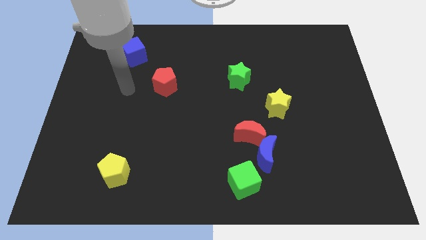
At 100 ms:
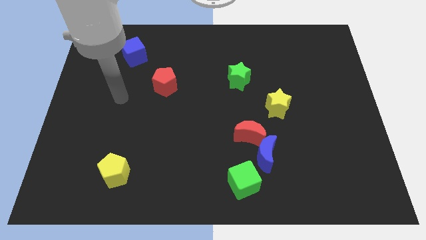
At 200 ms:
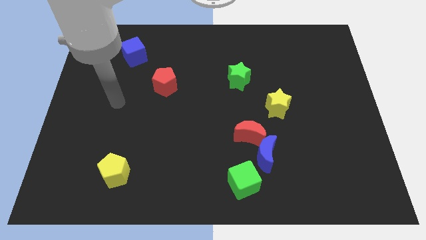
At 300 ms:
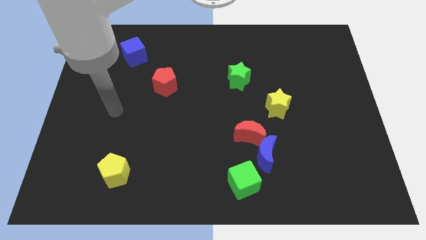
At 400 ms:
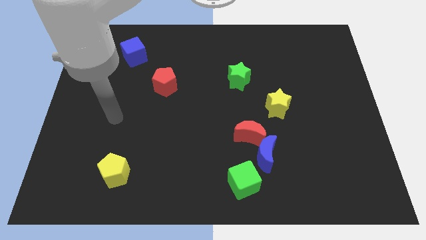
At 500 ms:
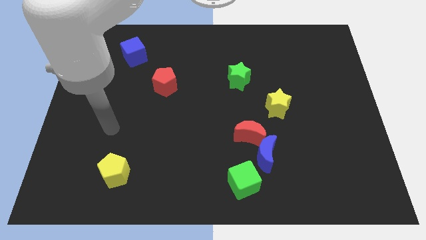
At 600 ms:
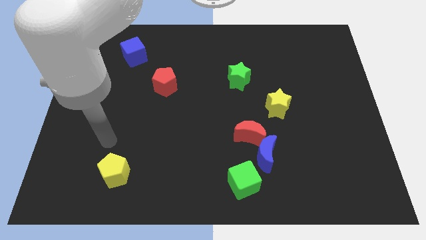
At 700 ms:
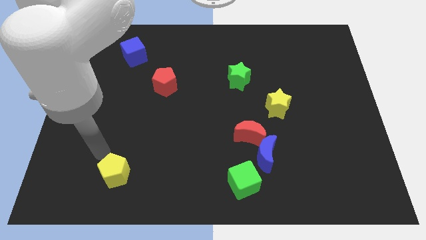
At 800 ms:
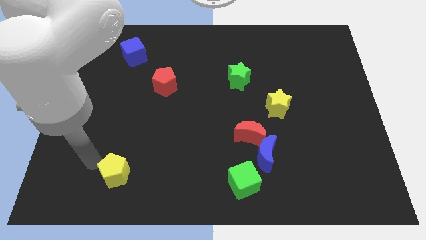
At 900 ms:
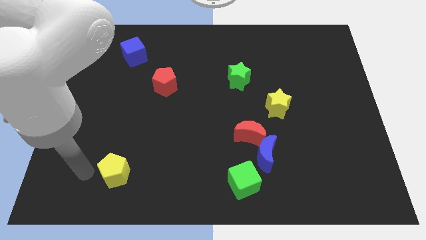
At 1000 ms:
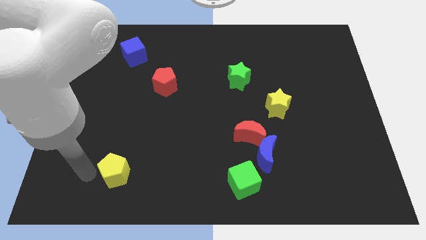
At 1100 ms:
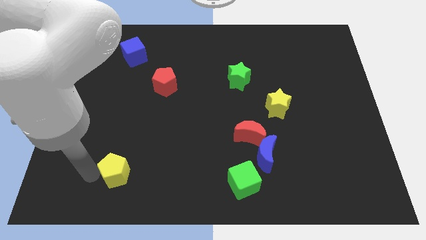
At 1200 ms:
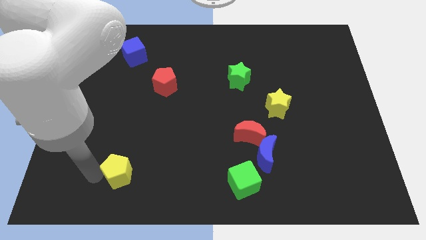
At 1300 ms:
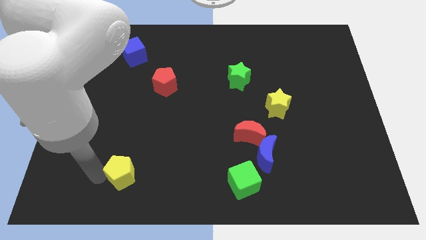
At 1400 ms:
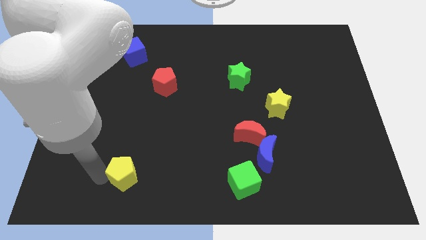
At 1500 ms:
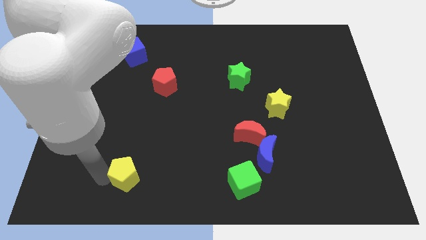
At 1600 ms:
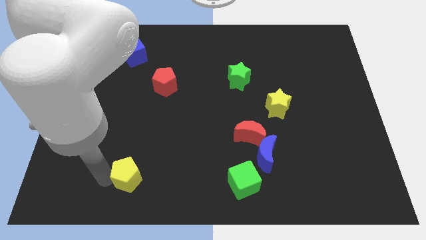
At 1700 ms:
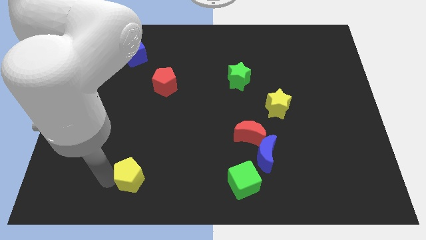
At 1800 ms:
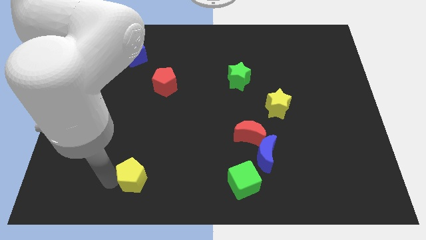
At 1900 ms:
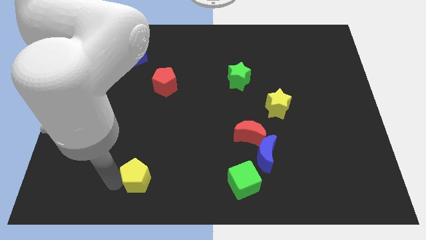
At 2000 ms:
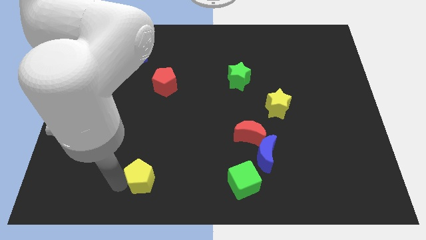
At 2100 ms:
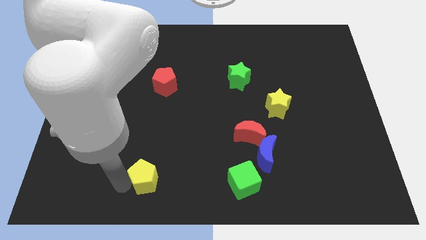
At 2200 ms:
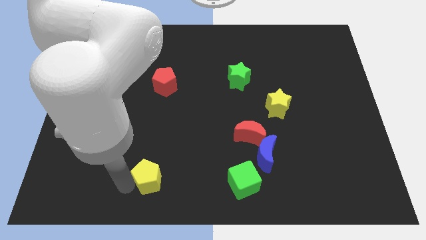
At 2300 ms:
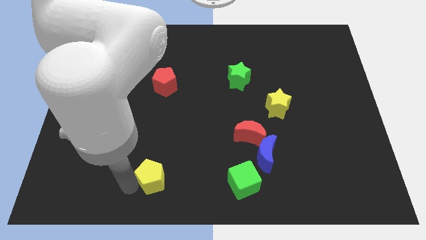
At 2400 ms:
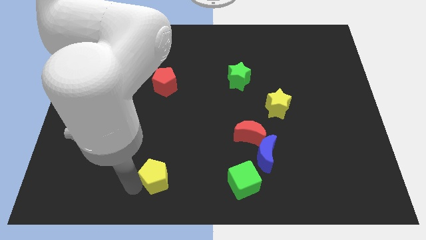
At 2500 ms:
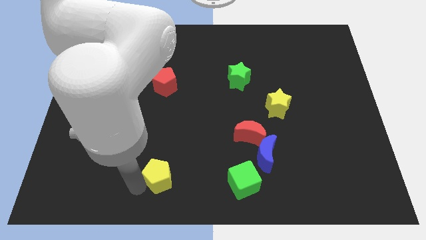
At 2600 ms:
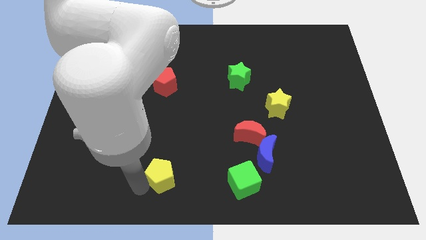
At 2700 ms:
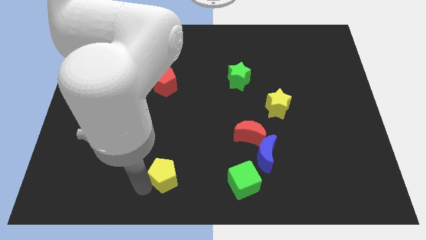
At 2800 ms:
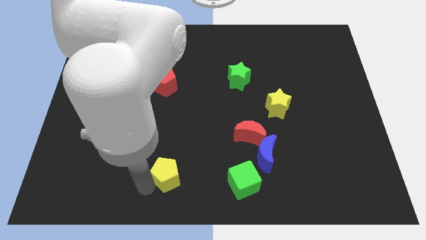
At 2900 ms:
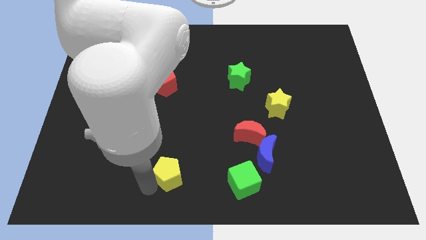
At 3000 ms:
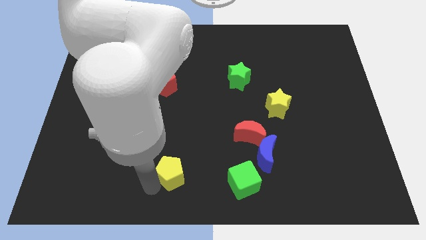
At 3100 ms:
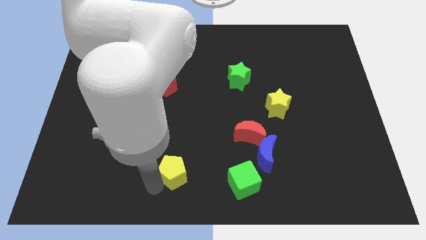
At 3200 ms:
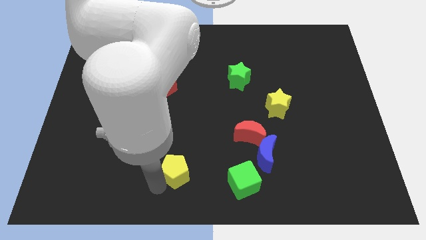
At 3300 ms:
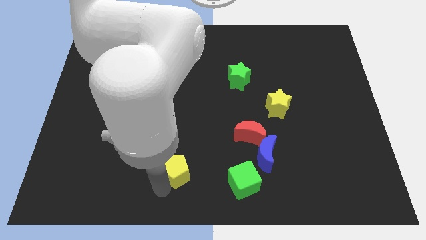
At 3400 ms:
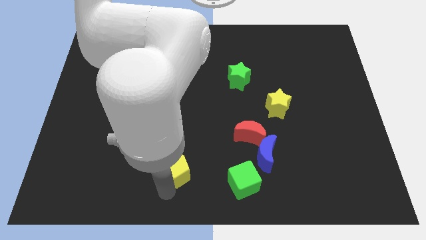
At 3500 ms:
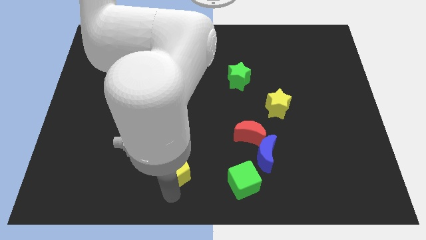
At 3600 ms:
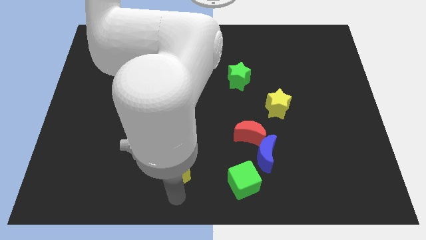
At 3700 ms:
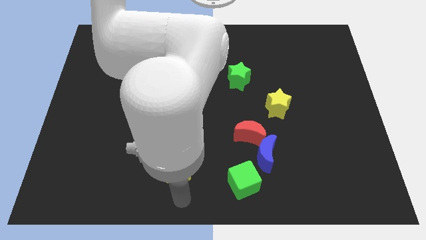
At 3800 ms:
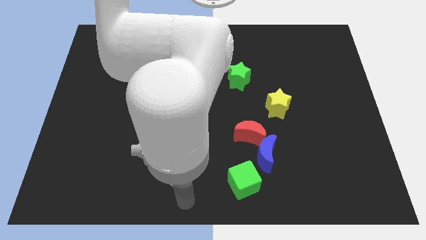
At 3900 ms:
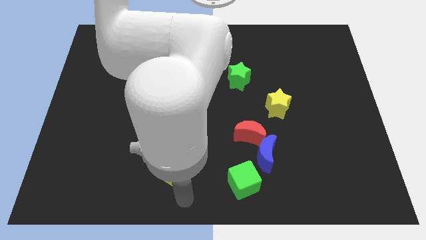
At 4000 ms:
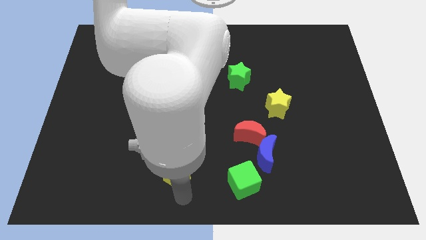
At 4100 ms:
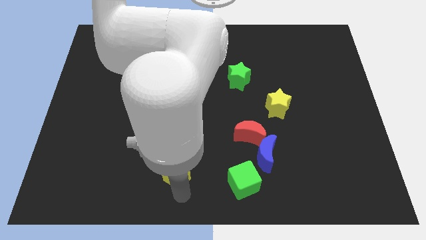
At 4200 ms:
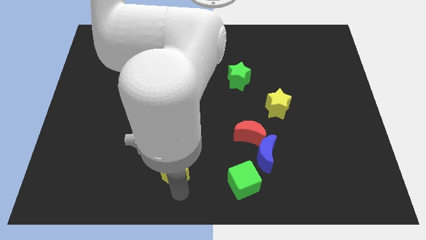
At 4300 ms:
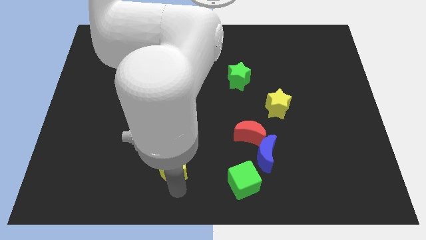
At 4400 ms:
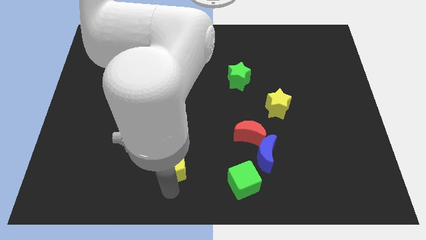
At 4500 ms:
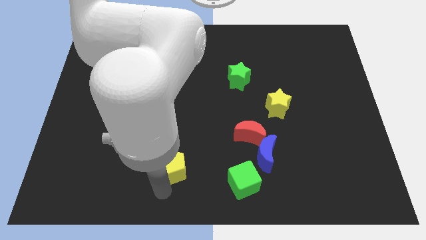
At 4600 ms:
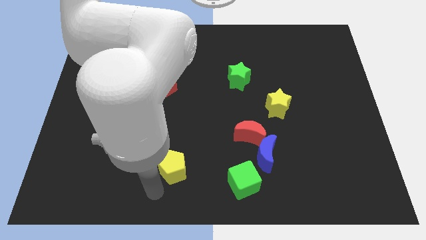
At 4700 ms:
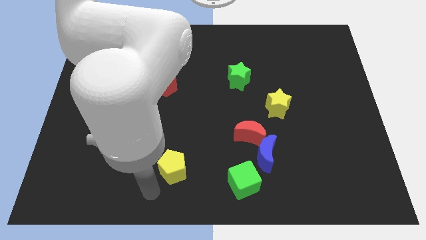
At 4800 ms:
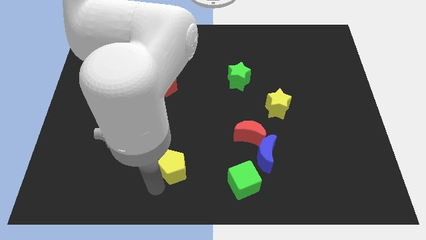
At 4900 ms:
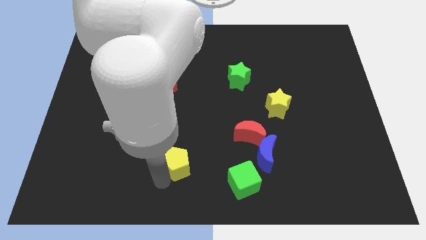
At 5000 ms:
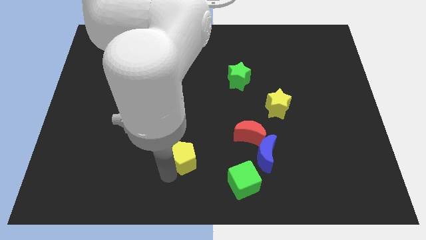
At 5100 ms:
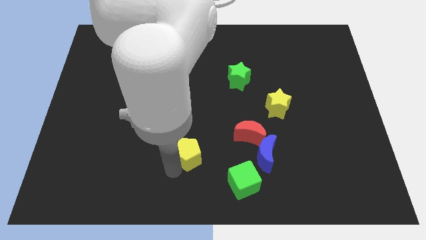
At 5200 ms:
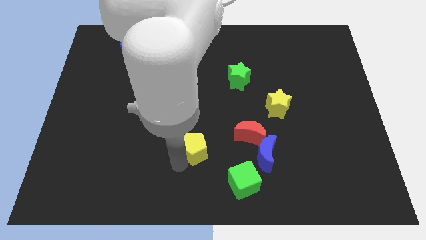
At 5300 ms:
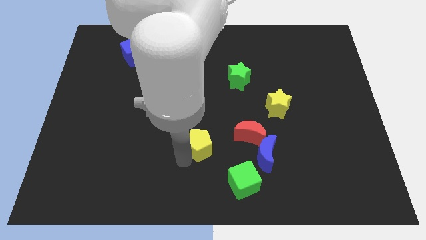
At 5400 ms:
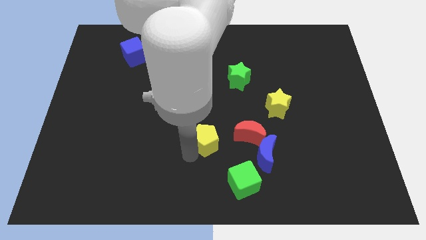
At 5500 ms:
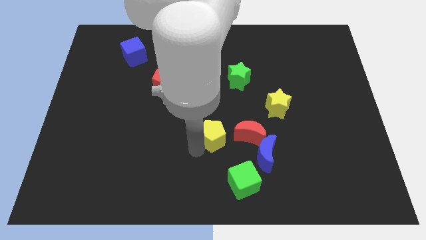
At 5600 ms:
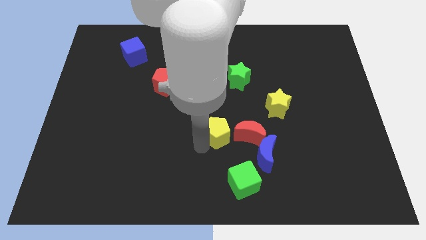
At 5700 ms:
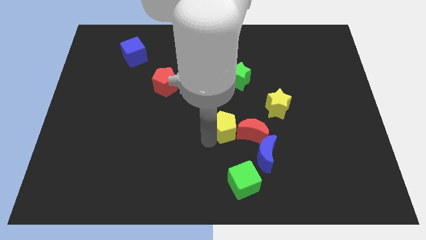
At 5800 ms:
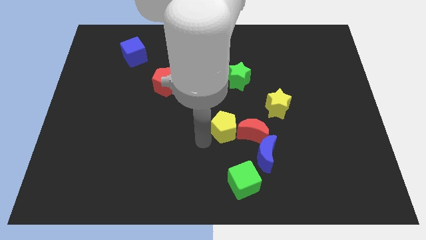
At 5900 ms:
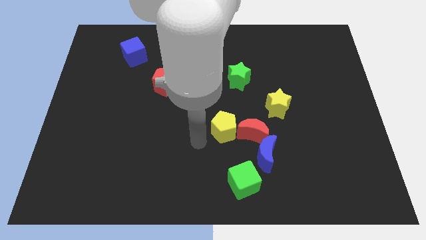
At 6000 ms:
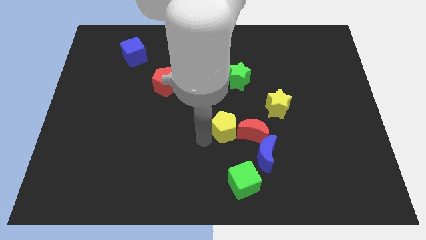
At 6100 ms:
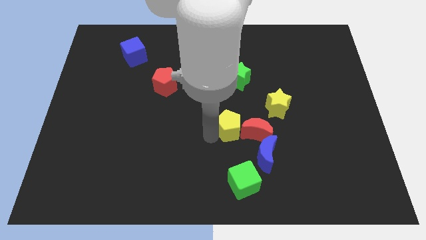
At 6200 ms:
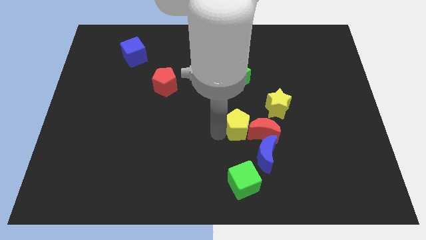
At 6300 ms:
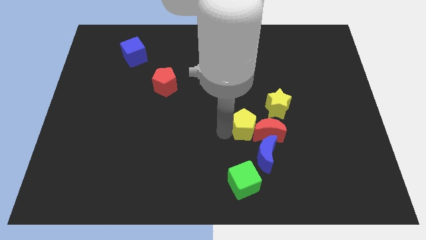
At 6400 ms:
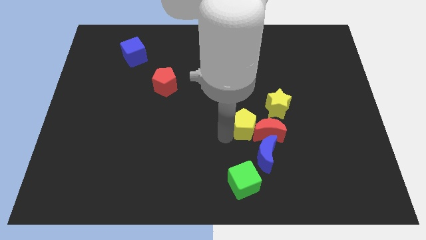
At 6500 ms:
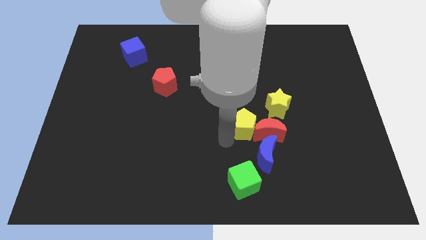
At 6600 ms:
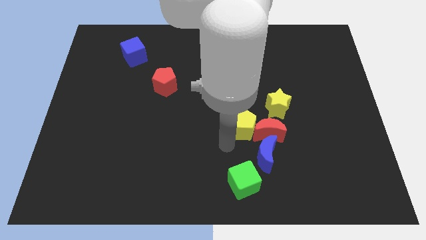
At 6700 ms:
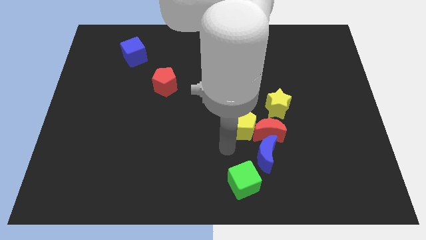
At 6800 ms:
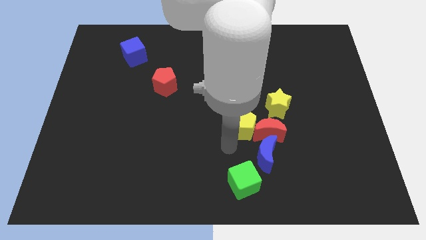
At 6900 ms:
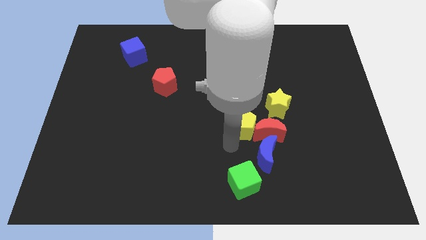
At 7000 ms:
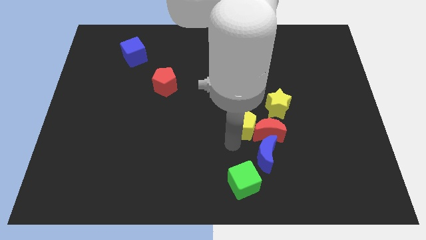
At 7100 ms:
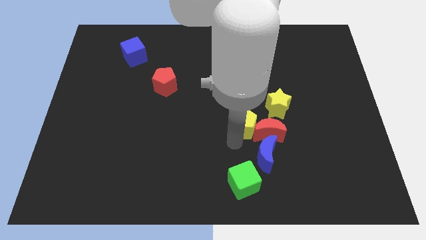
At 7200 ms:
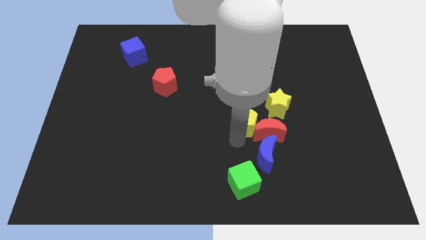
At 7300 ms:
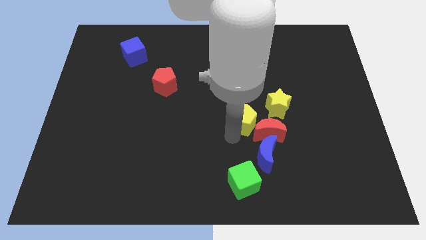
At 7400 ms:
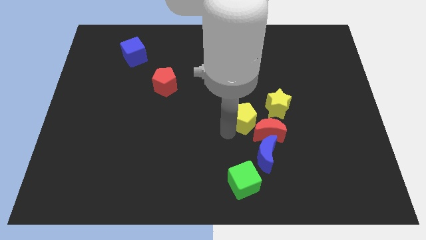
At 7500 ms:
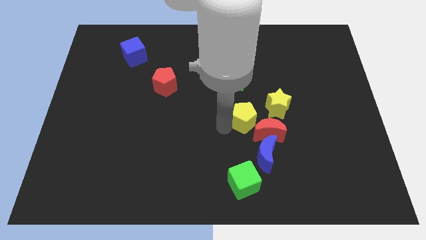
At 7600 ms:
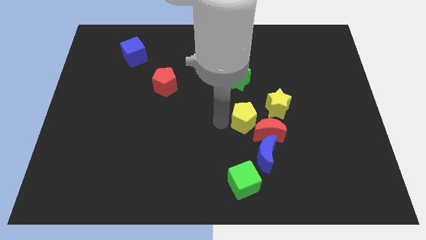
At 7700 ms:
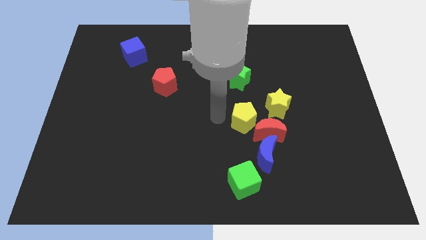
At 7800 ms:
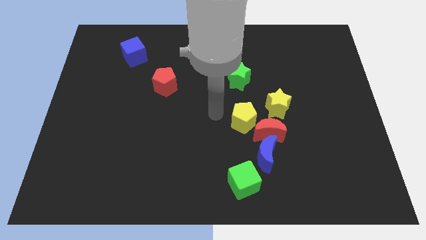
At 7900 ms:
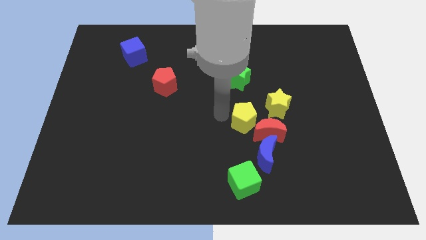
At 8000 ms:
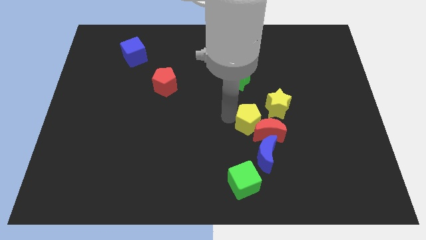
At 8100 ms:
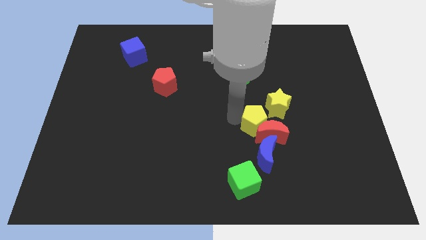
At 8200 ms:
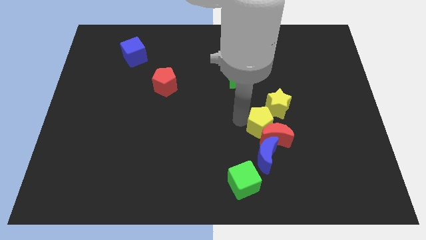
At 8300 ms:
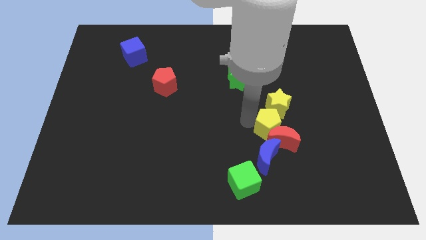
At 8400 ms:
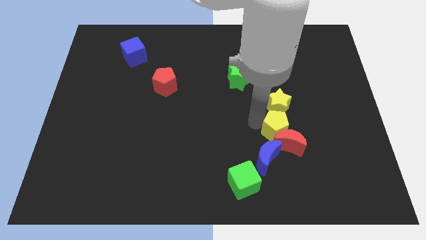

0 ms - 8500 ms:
slide the yellow pentagon diagonally up and to the right of the blue moon
